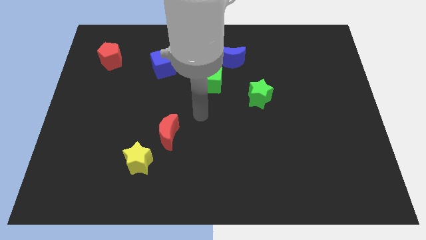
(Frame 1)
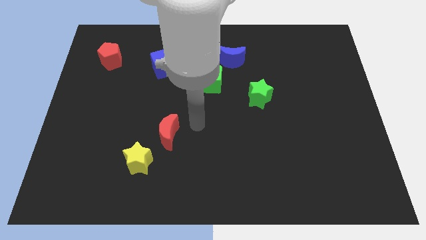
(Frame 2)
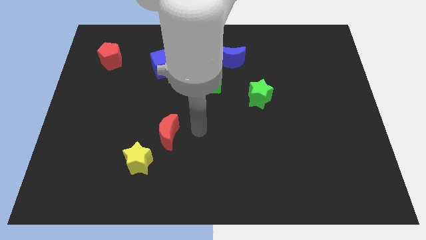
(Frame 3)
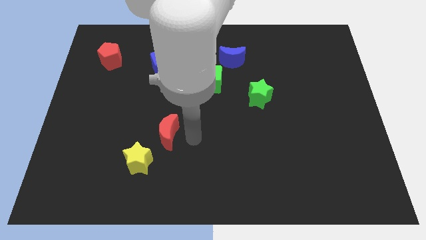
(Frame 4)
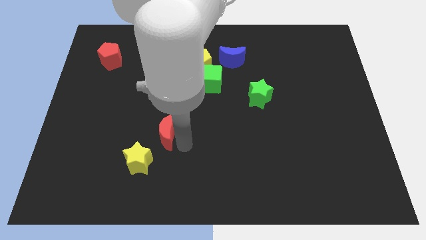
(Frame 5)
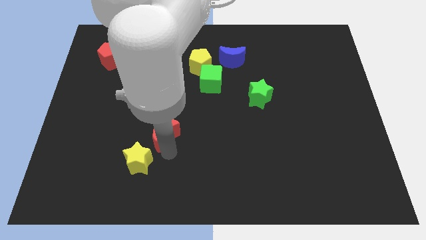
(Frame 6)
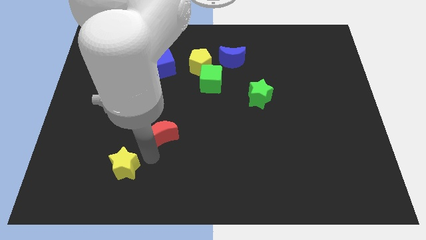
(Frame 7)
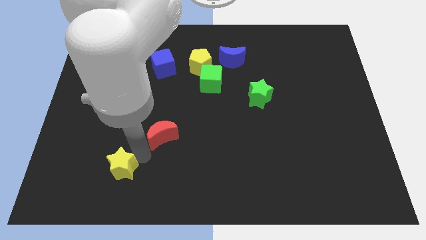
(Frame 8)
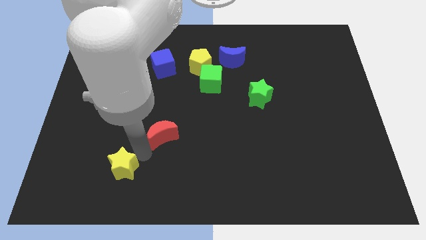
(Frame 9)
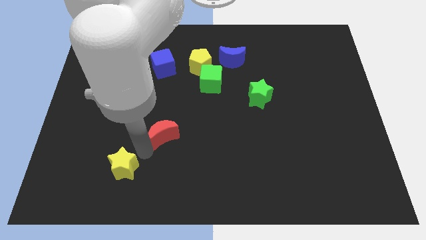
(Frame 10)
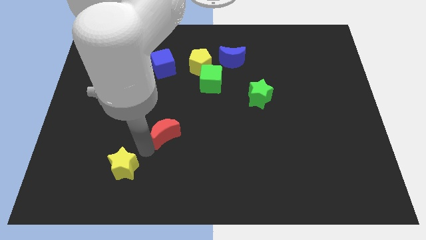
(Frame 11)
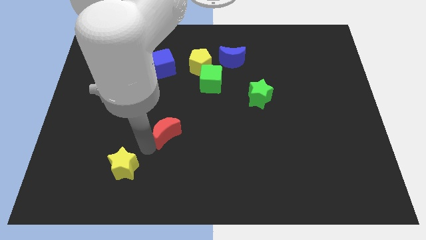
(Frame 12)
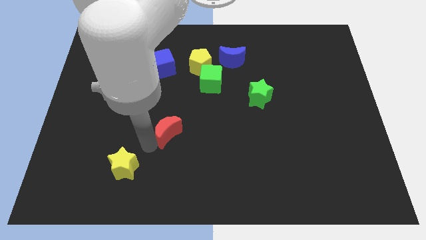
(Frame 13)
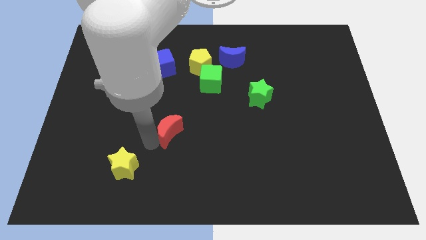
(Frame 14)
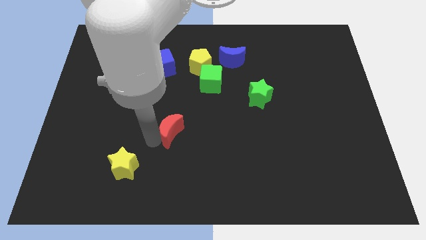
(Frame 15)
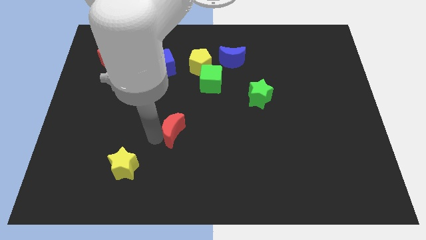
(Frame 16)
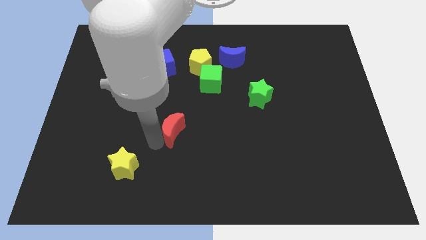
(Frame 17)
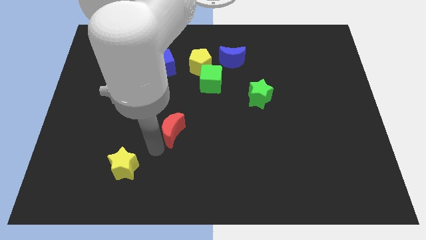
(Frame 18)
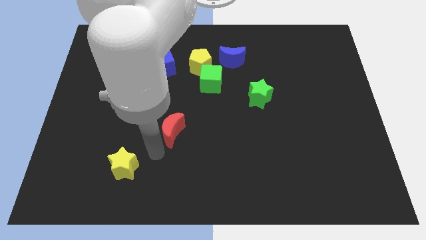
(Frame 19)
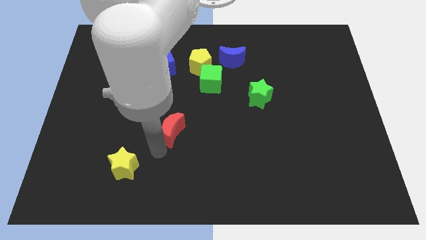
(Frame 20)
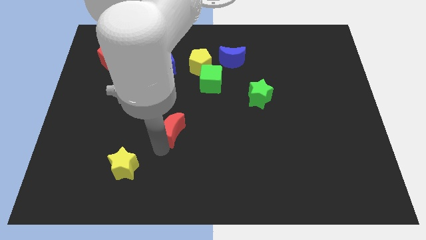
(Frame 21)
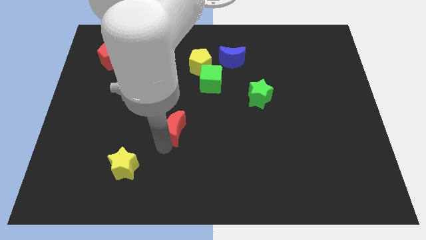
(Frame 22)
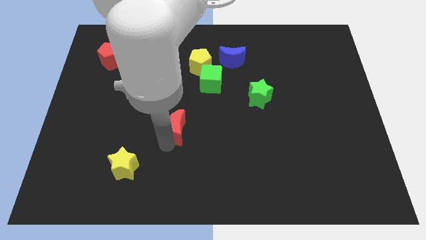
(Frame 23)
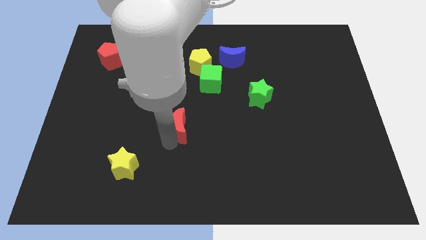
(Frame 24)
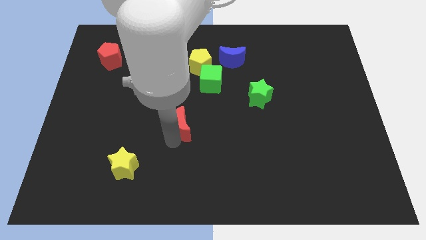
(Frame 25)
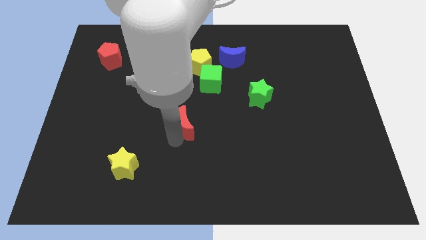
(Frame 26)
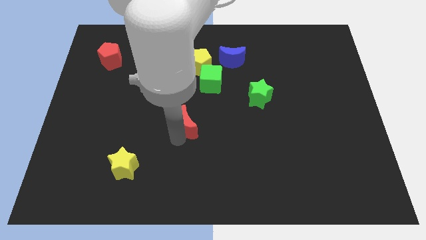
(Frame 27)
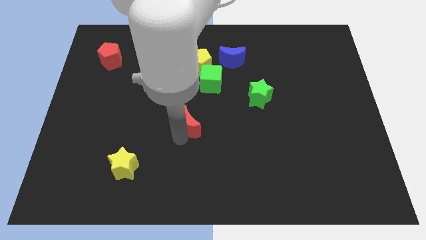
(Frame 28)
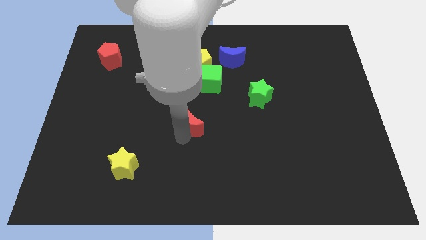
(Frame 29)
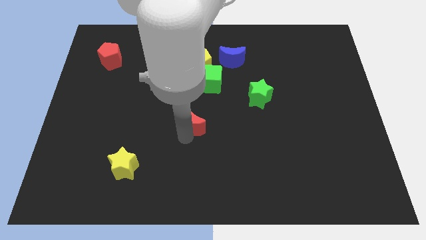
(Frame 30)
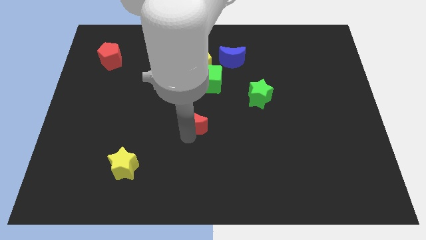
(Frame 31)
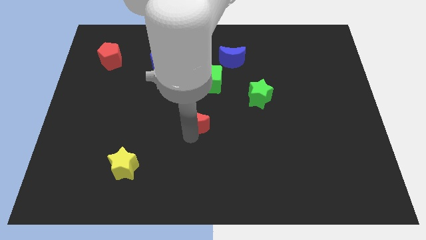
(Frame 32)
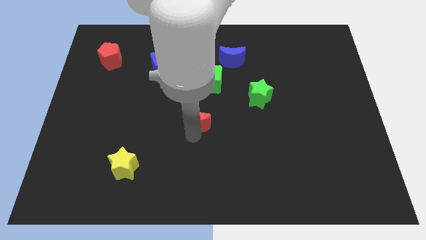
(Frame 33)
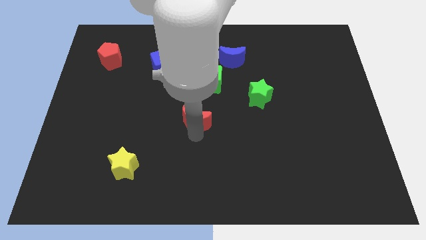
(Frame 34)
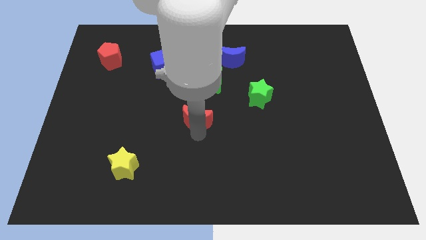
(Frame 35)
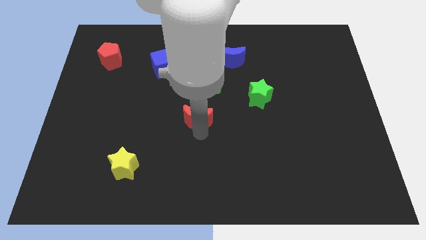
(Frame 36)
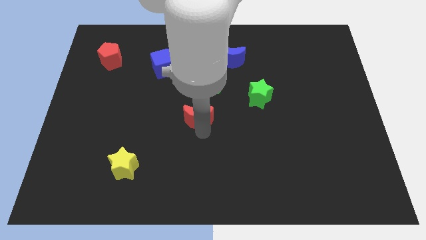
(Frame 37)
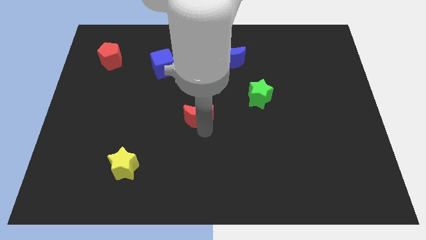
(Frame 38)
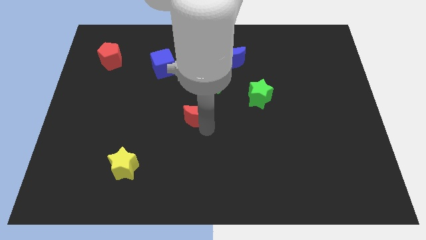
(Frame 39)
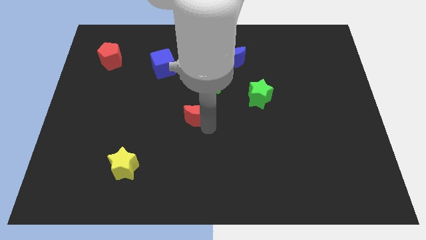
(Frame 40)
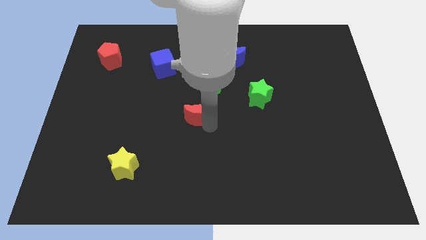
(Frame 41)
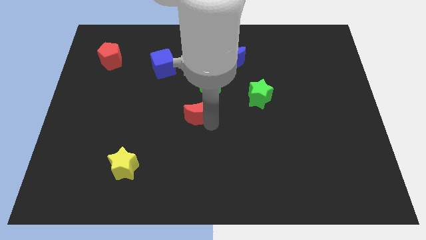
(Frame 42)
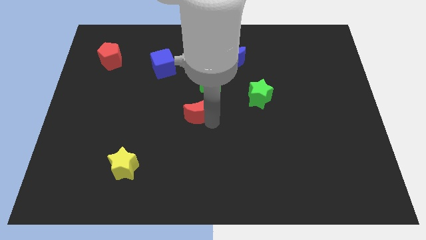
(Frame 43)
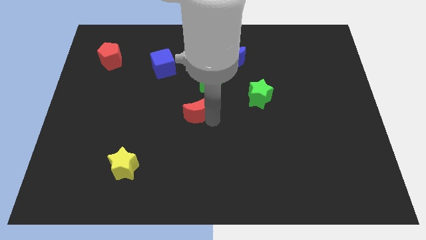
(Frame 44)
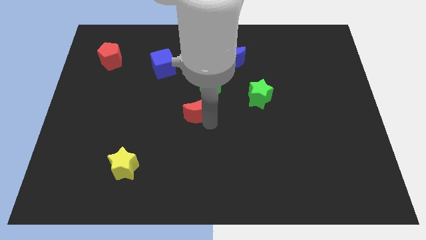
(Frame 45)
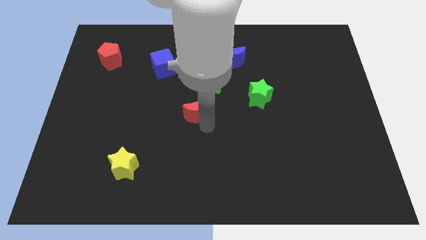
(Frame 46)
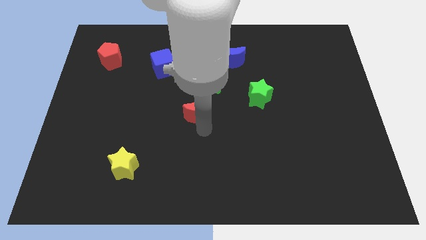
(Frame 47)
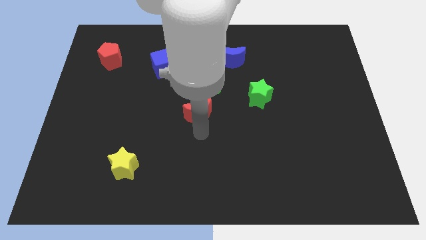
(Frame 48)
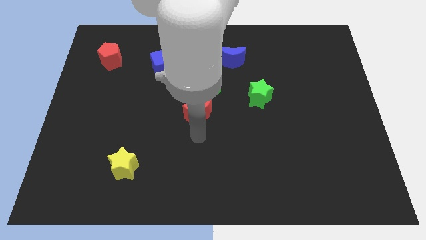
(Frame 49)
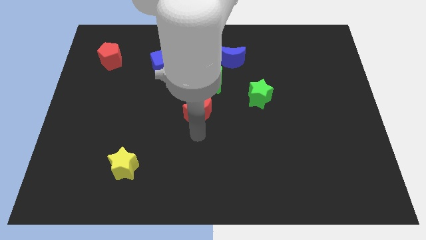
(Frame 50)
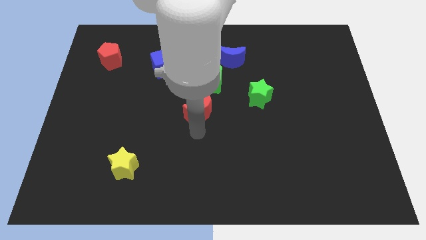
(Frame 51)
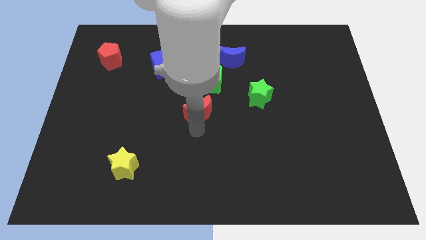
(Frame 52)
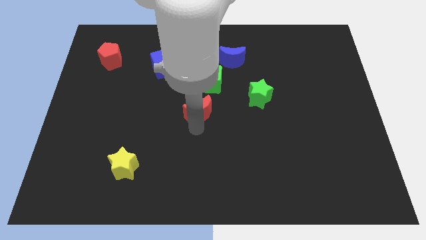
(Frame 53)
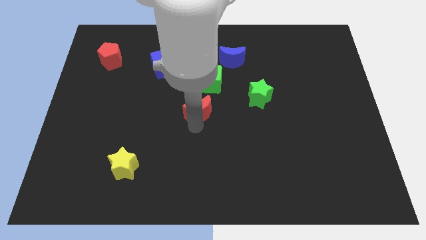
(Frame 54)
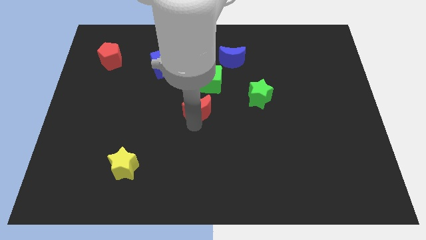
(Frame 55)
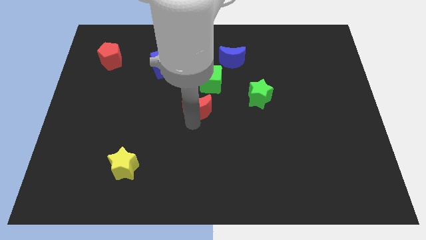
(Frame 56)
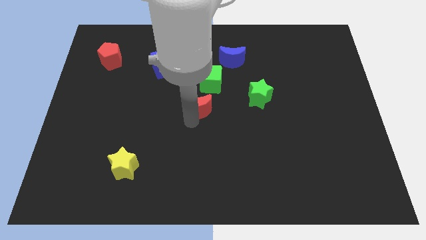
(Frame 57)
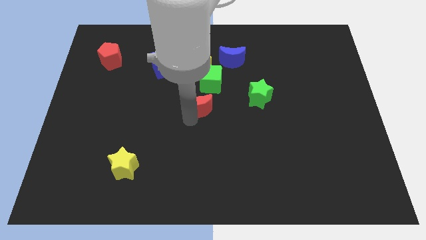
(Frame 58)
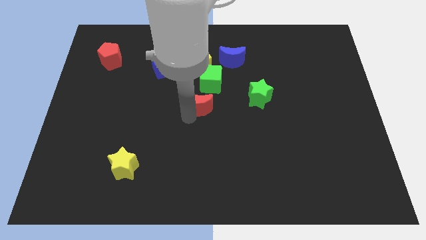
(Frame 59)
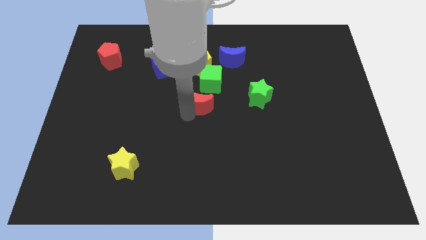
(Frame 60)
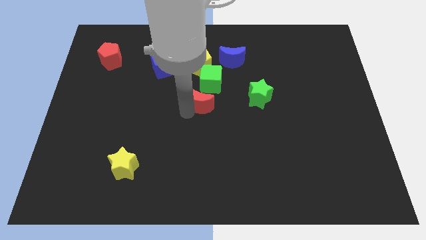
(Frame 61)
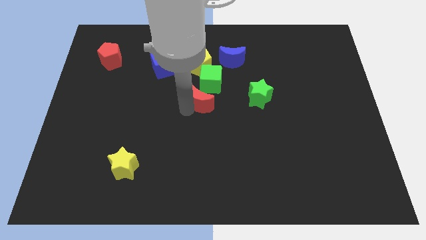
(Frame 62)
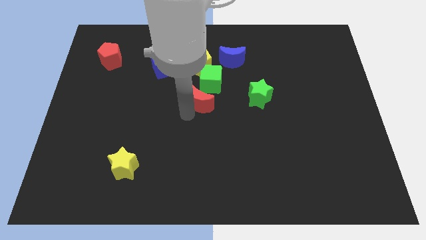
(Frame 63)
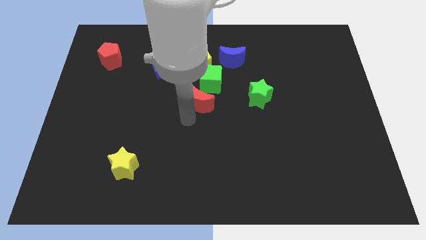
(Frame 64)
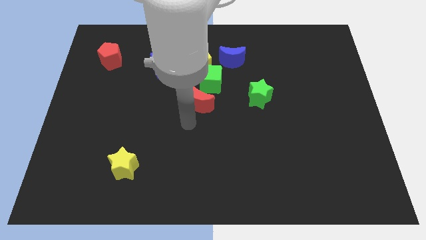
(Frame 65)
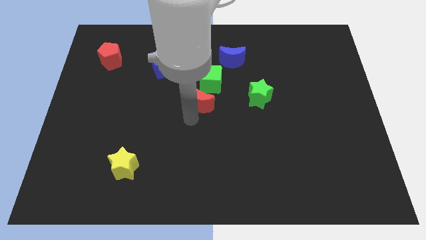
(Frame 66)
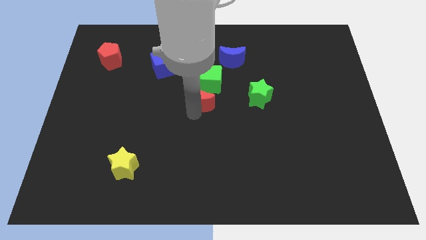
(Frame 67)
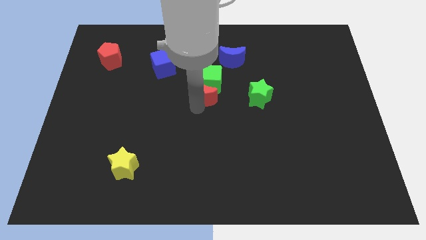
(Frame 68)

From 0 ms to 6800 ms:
slide the red moon towards the green cube
